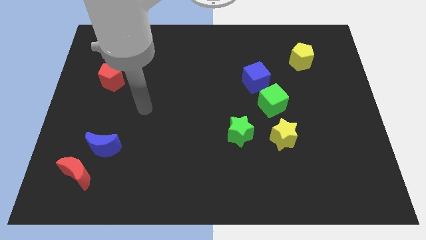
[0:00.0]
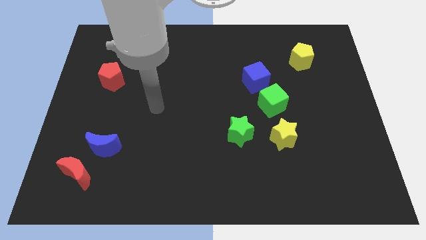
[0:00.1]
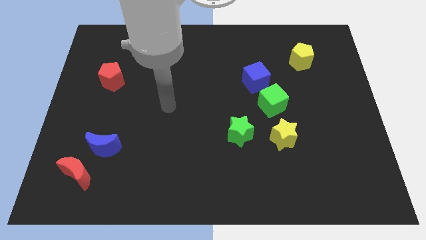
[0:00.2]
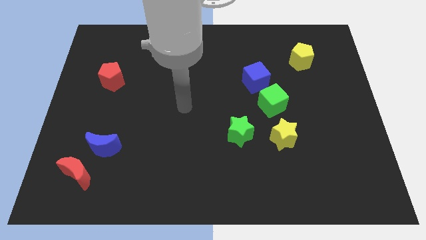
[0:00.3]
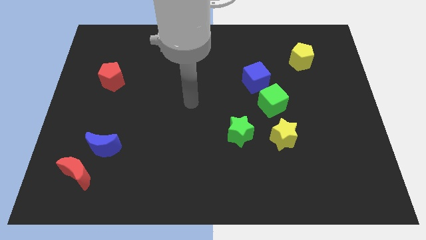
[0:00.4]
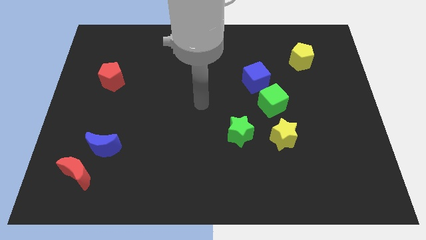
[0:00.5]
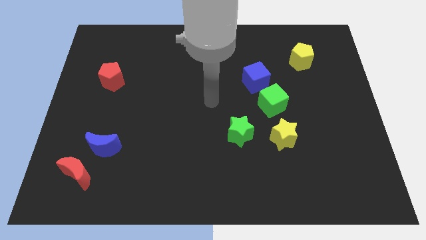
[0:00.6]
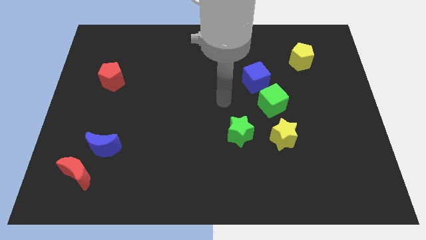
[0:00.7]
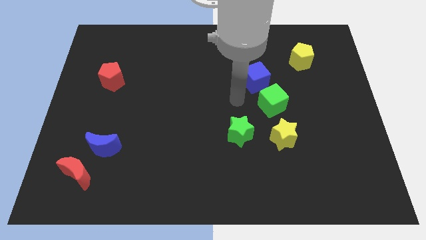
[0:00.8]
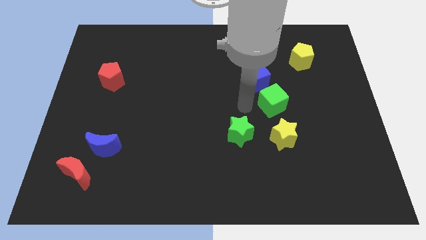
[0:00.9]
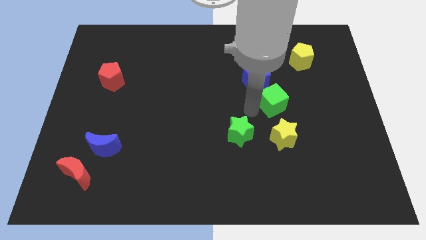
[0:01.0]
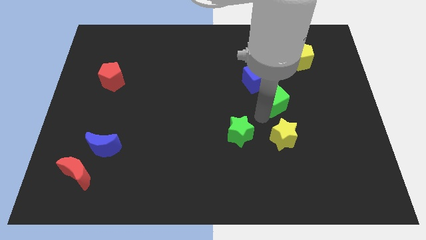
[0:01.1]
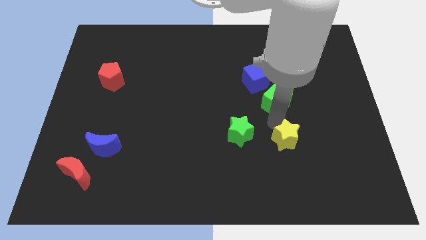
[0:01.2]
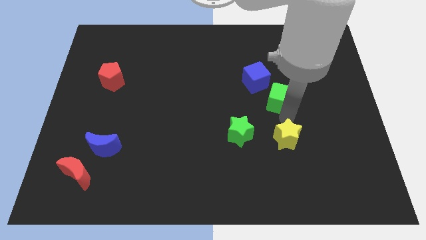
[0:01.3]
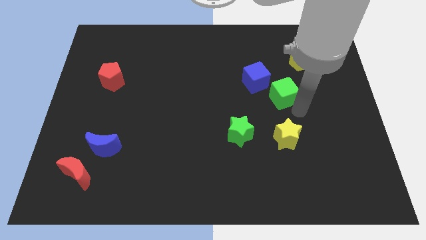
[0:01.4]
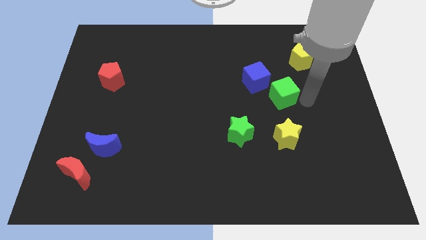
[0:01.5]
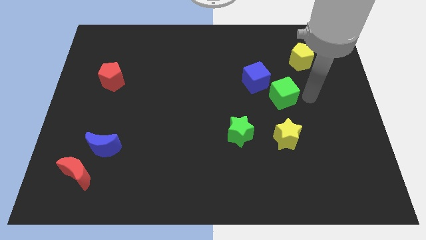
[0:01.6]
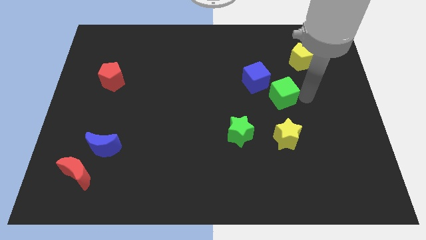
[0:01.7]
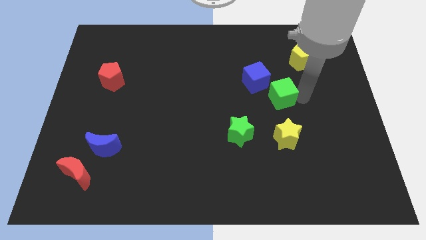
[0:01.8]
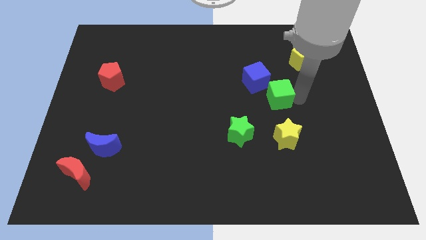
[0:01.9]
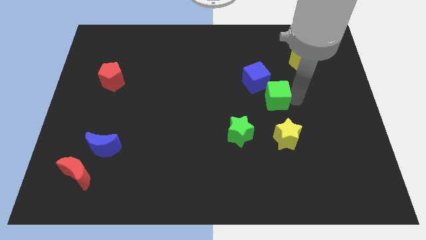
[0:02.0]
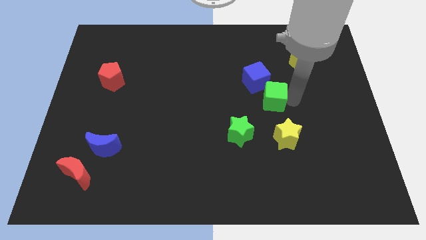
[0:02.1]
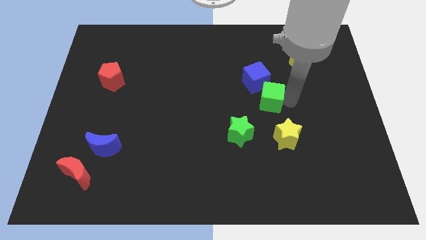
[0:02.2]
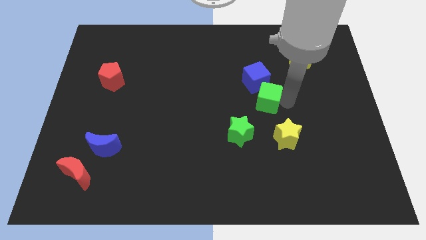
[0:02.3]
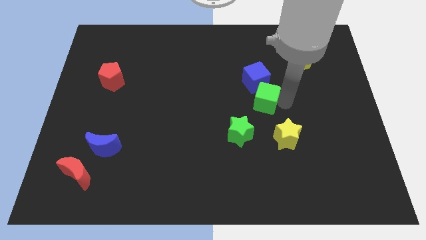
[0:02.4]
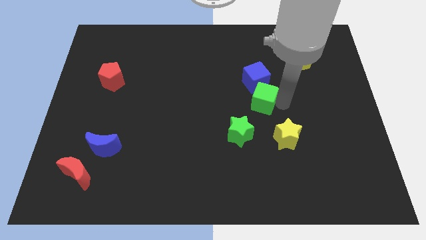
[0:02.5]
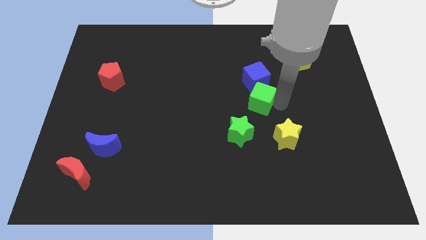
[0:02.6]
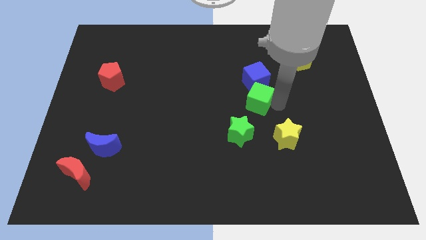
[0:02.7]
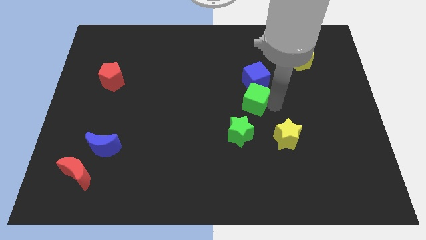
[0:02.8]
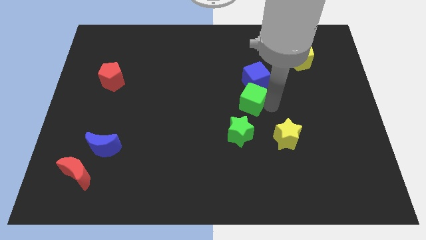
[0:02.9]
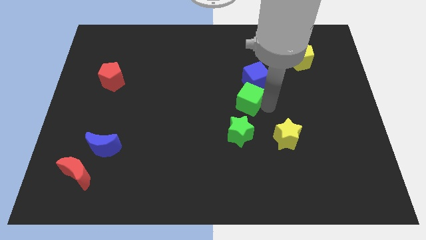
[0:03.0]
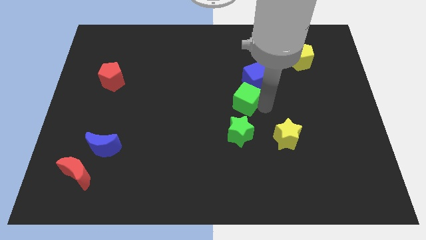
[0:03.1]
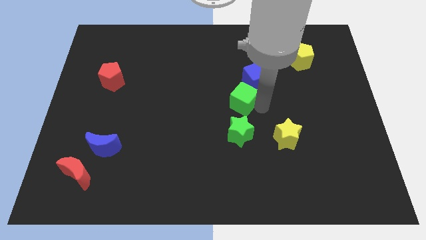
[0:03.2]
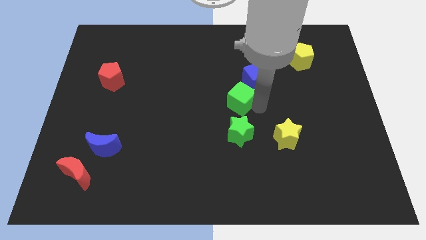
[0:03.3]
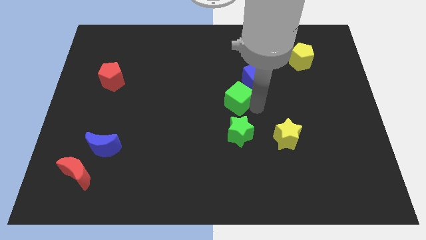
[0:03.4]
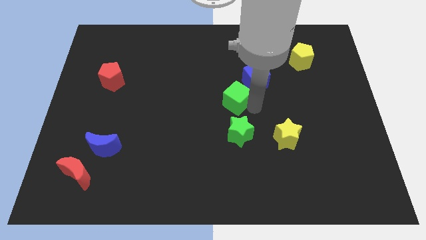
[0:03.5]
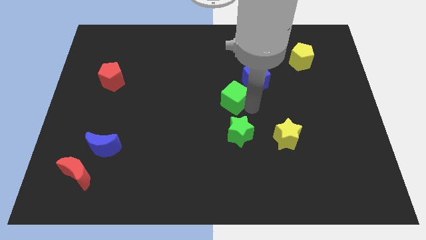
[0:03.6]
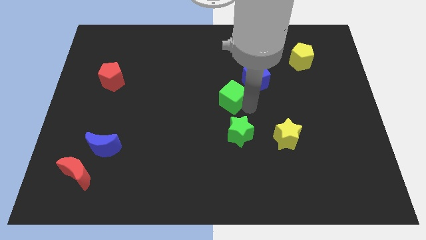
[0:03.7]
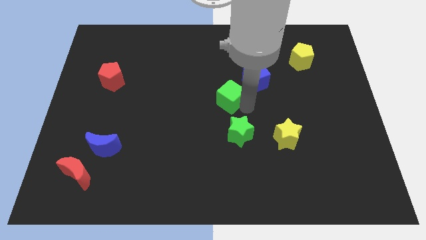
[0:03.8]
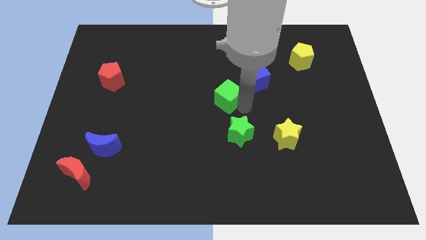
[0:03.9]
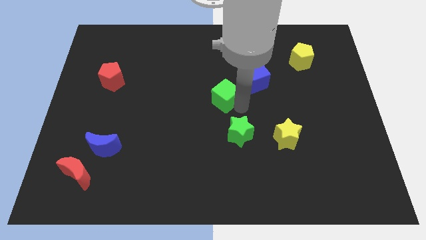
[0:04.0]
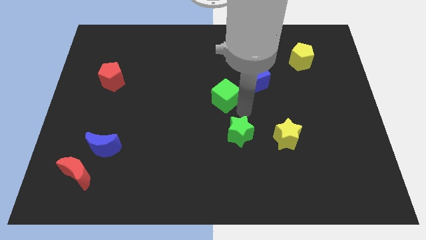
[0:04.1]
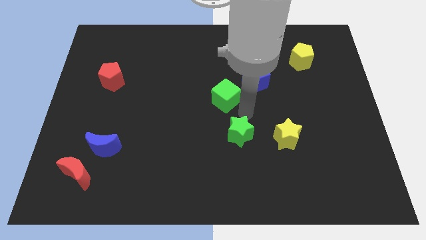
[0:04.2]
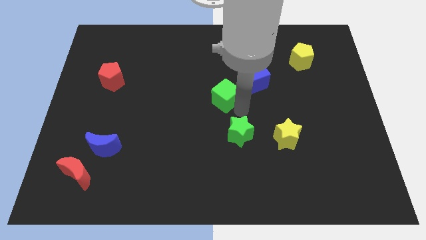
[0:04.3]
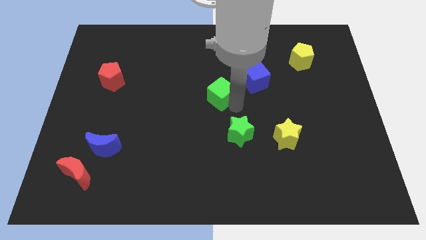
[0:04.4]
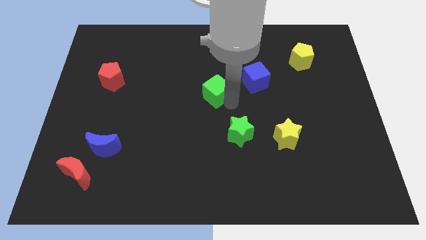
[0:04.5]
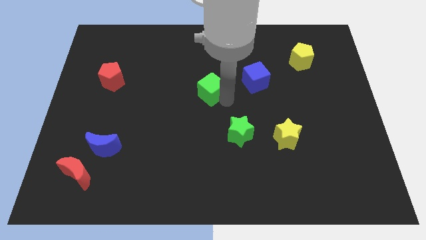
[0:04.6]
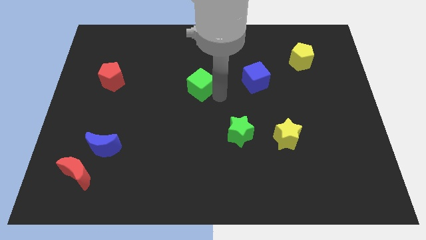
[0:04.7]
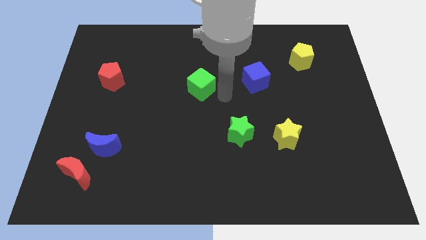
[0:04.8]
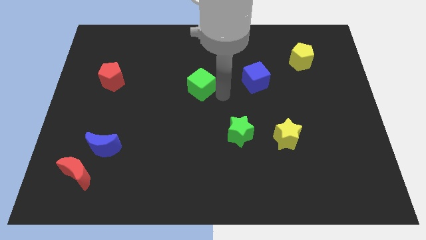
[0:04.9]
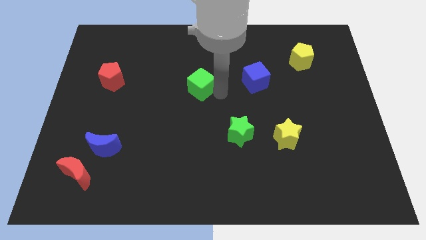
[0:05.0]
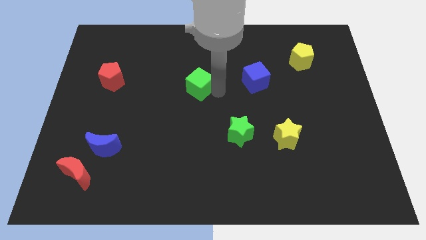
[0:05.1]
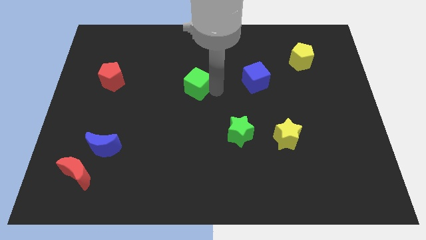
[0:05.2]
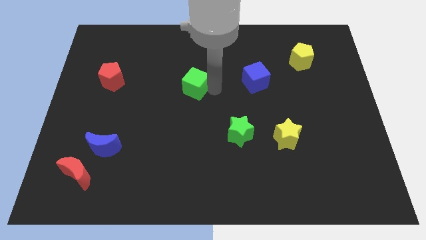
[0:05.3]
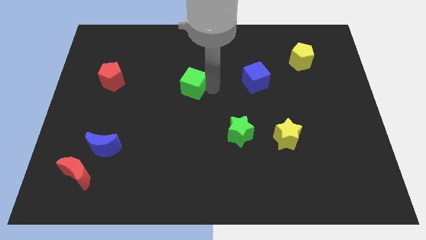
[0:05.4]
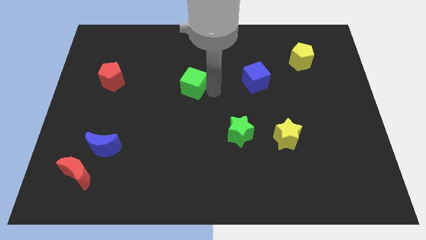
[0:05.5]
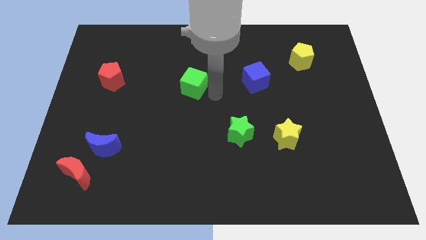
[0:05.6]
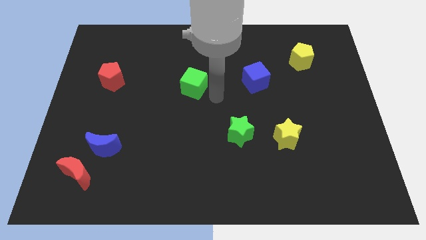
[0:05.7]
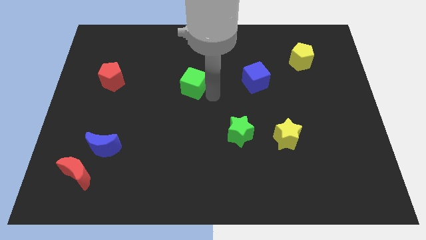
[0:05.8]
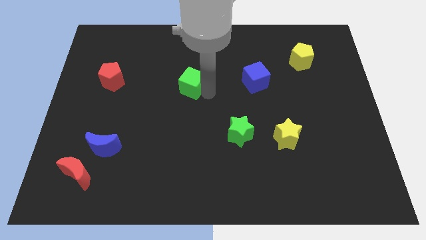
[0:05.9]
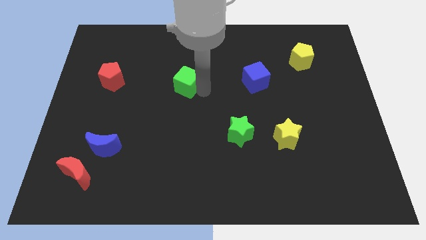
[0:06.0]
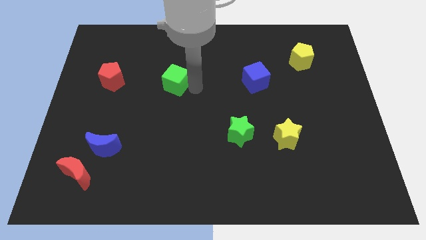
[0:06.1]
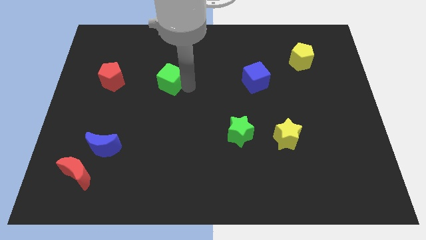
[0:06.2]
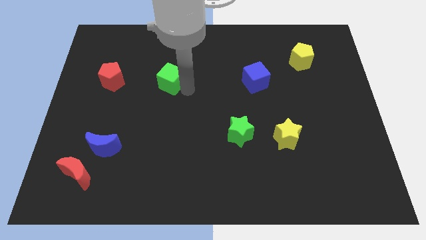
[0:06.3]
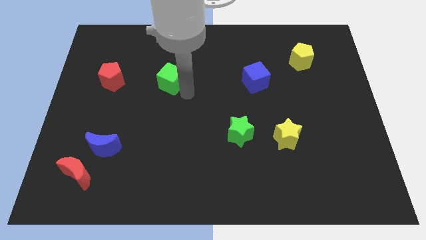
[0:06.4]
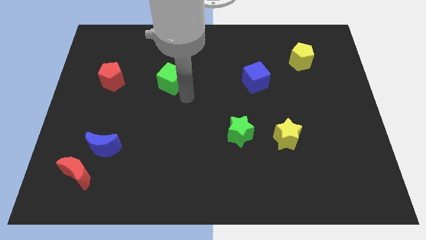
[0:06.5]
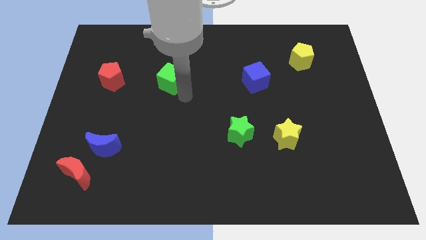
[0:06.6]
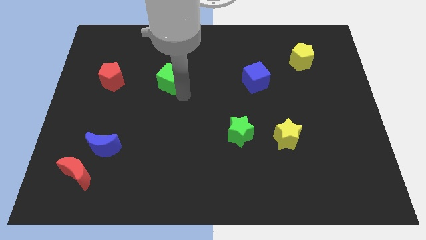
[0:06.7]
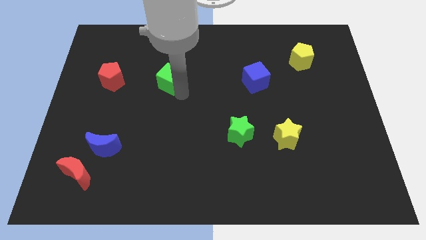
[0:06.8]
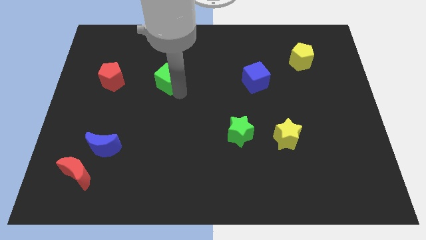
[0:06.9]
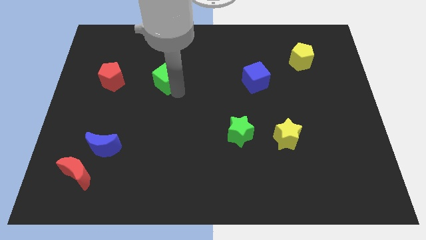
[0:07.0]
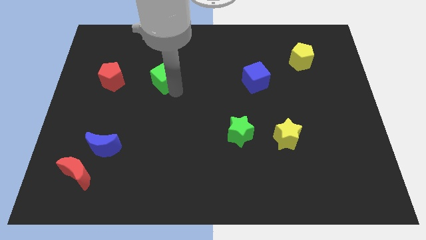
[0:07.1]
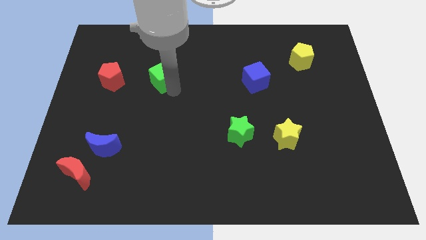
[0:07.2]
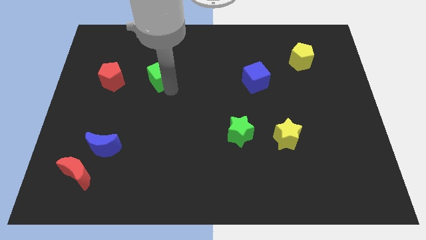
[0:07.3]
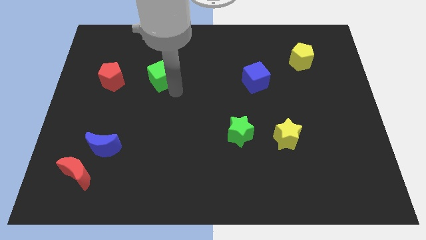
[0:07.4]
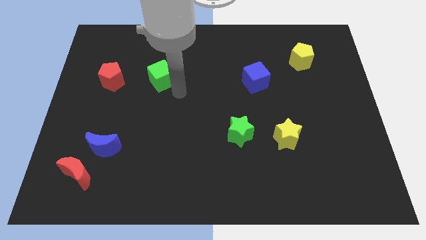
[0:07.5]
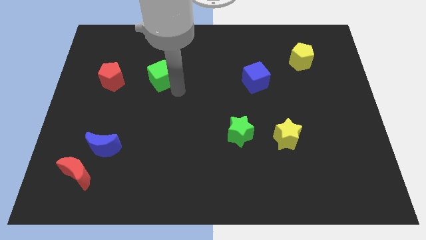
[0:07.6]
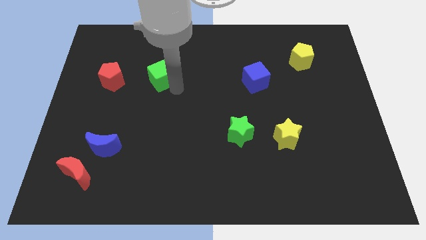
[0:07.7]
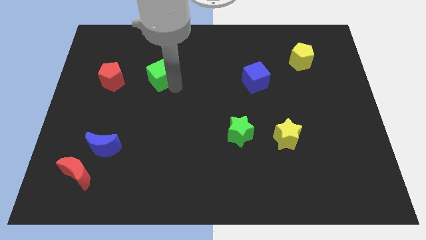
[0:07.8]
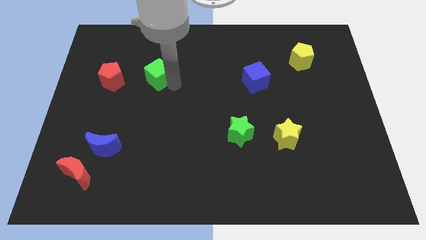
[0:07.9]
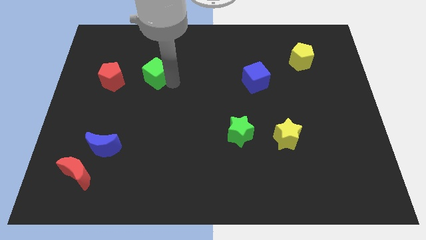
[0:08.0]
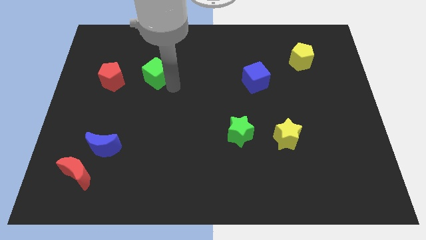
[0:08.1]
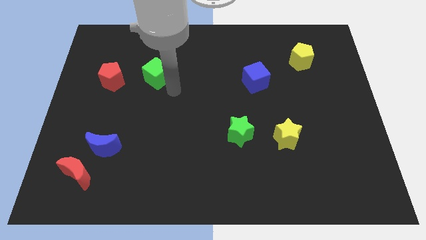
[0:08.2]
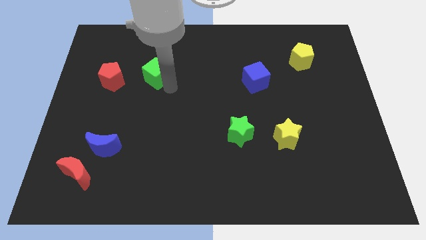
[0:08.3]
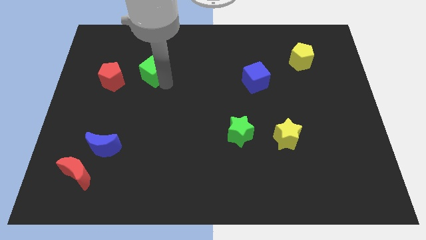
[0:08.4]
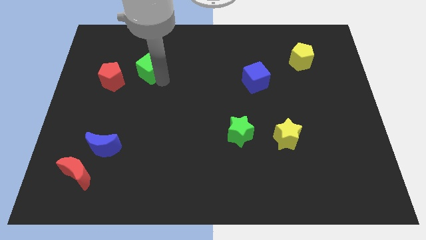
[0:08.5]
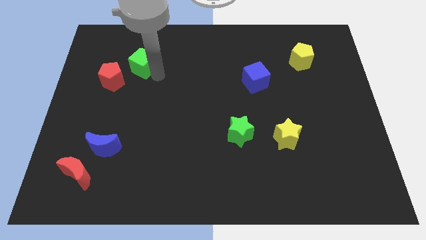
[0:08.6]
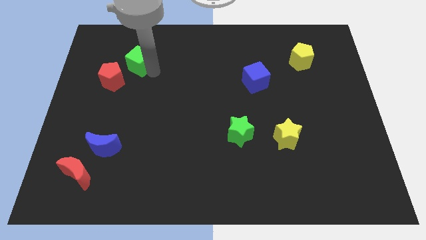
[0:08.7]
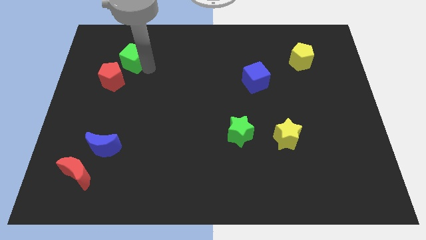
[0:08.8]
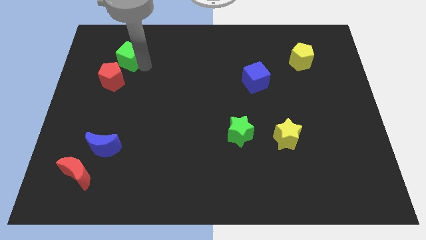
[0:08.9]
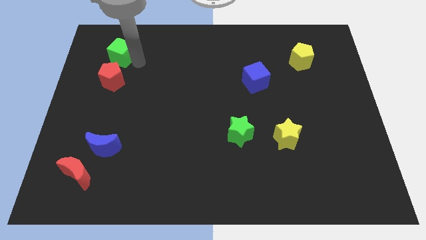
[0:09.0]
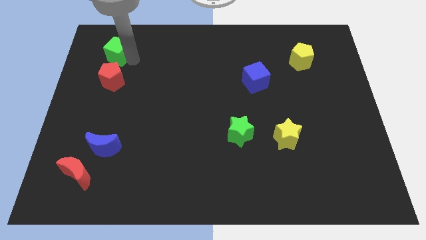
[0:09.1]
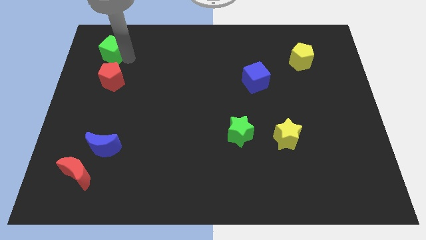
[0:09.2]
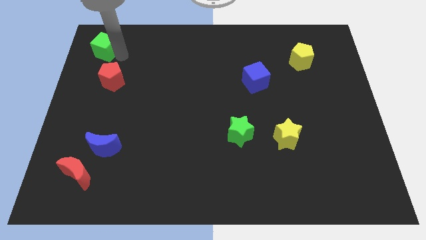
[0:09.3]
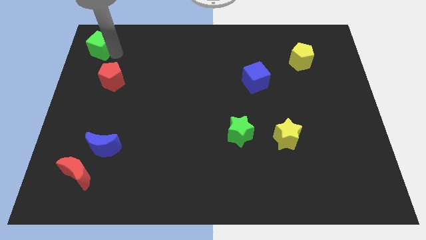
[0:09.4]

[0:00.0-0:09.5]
move the green cube to the upper left corner
